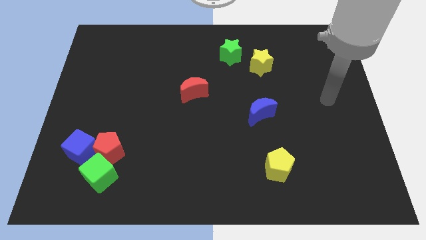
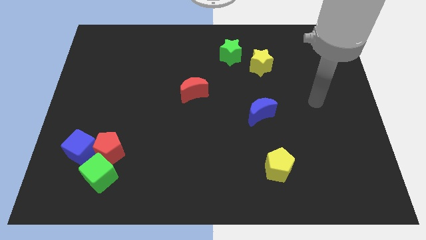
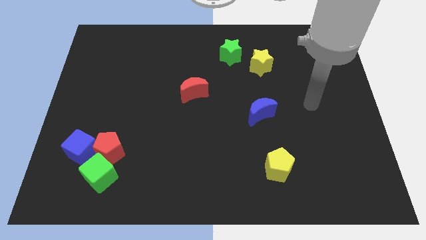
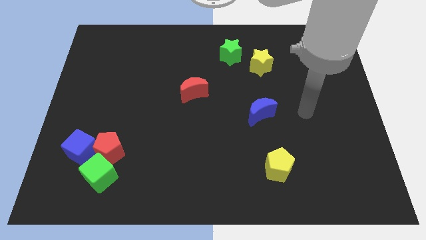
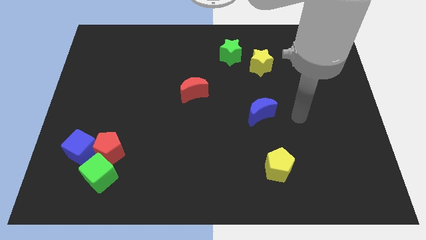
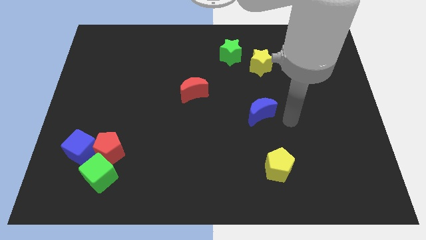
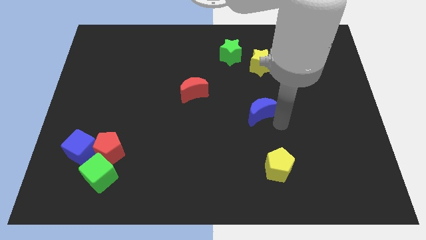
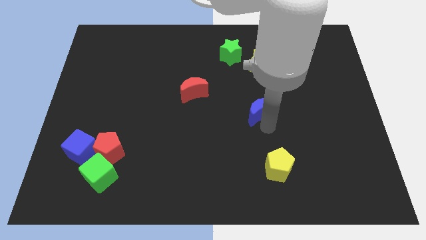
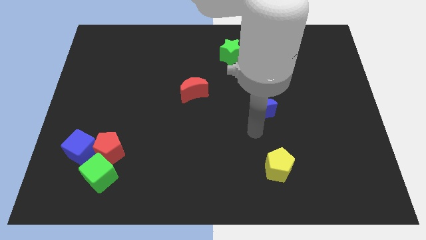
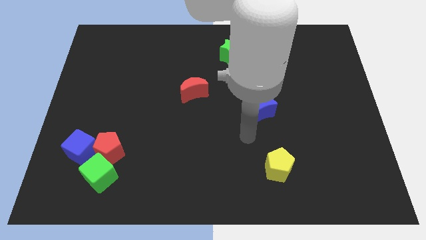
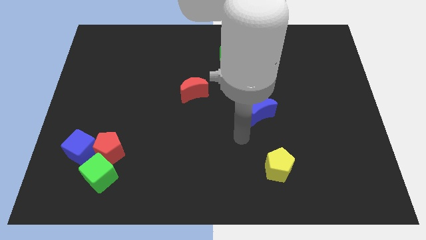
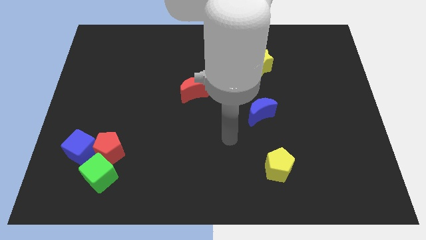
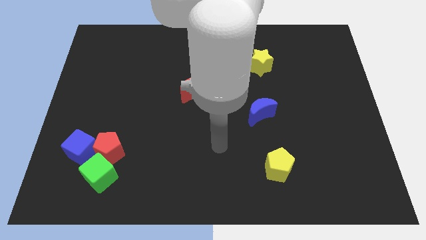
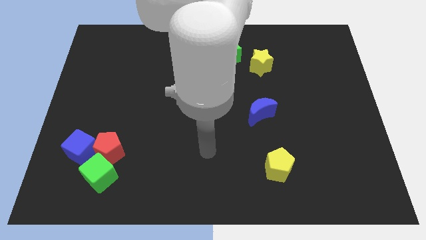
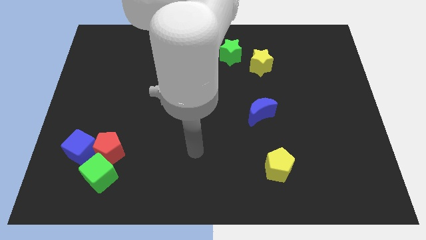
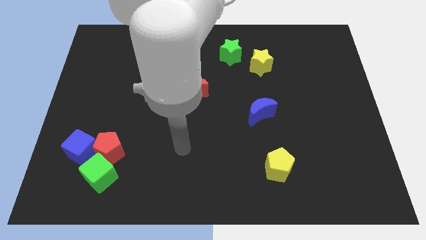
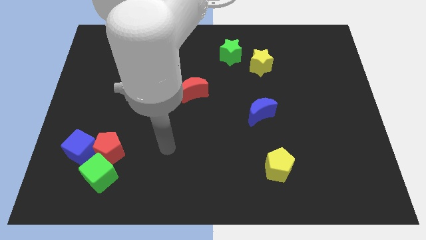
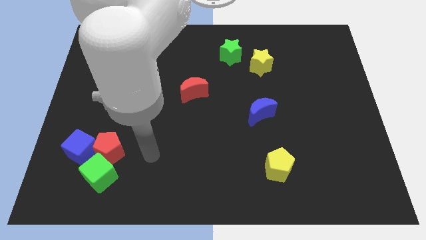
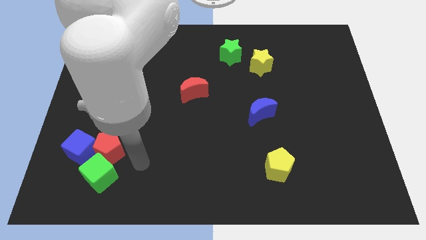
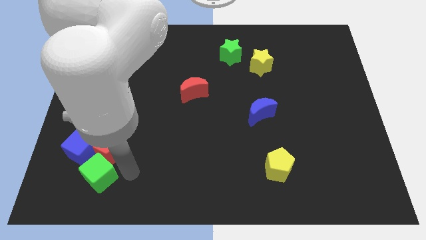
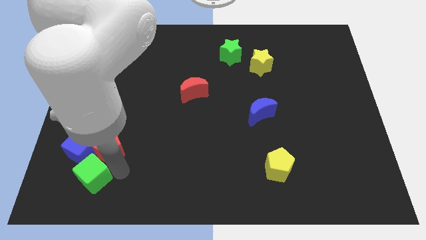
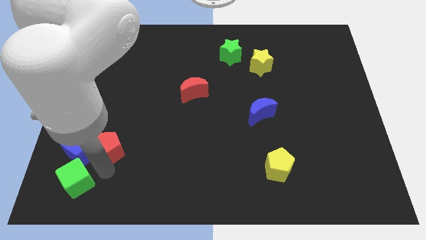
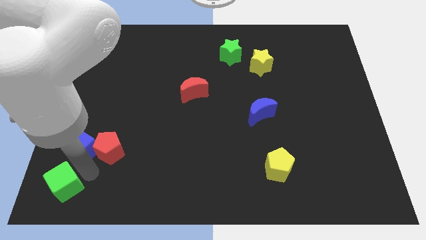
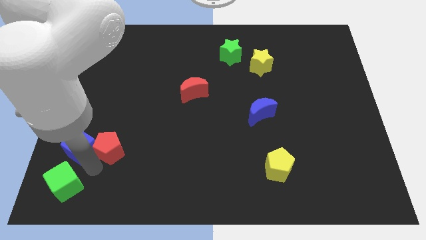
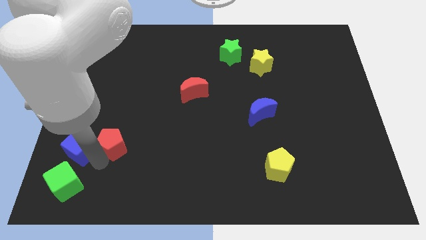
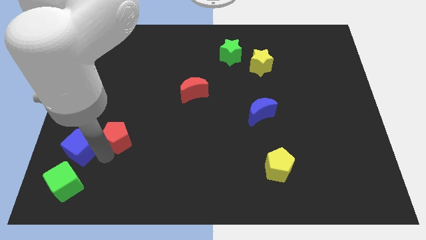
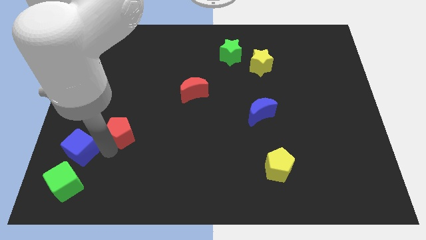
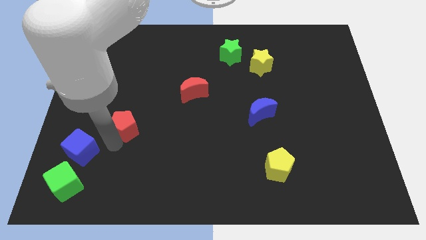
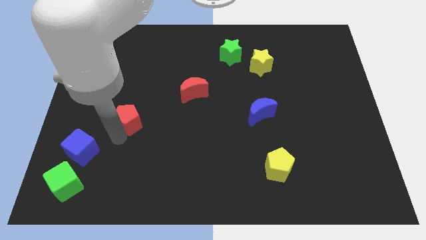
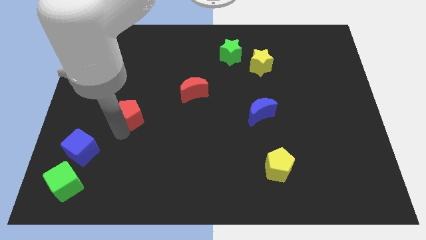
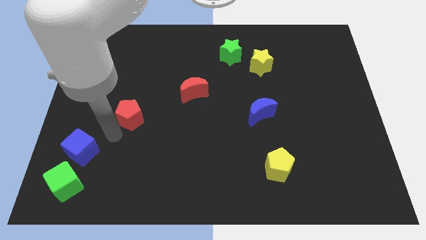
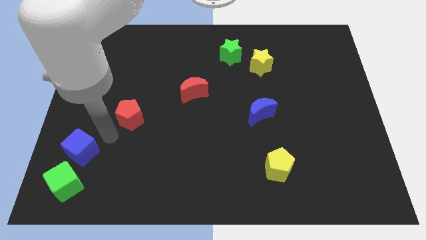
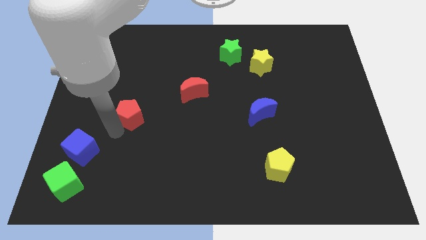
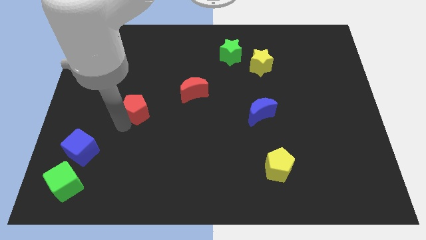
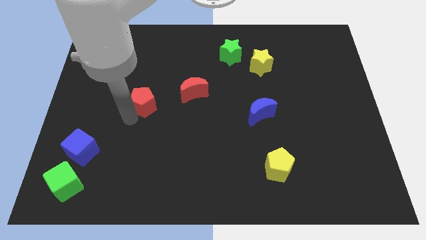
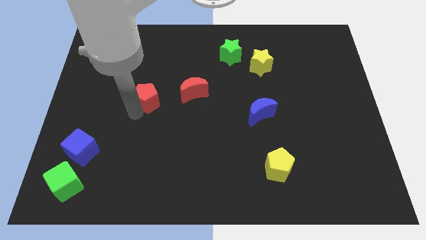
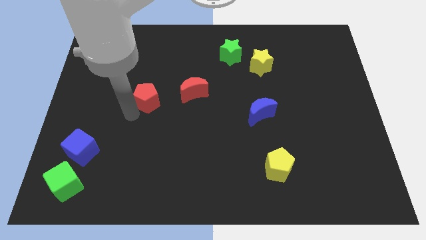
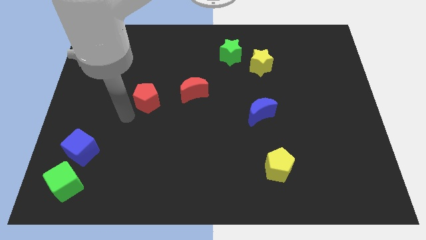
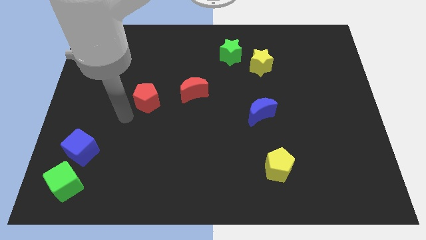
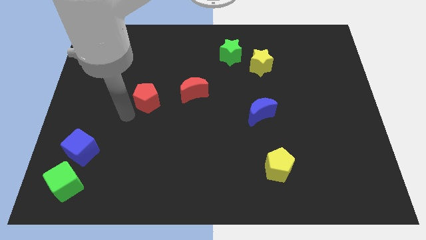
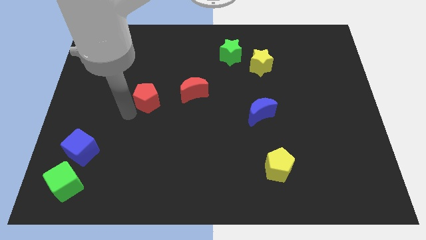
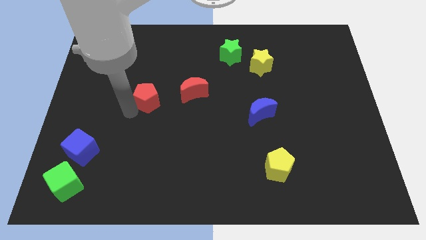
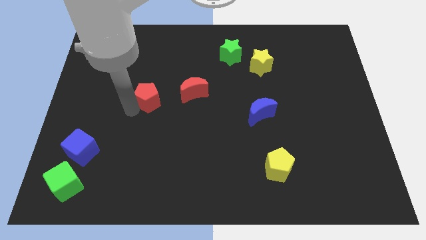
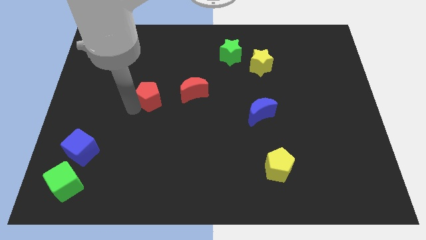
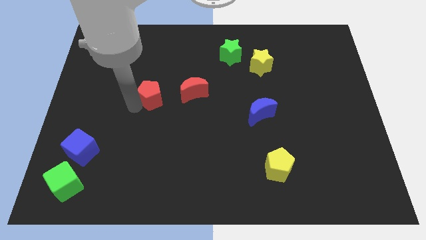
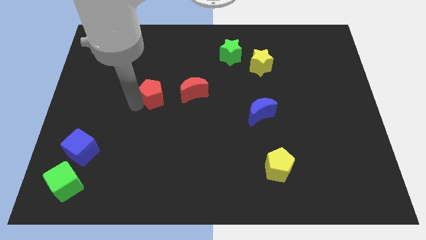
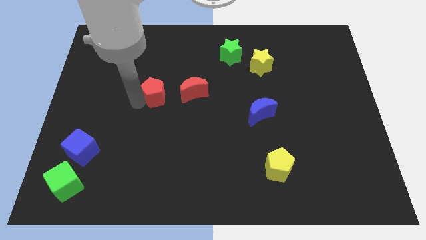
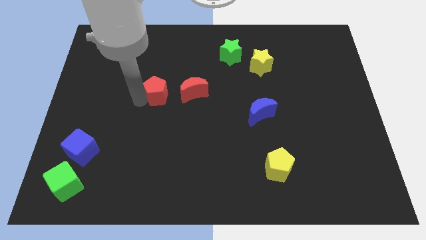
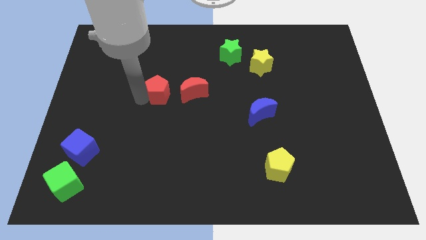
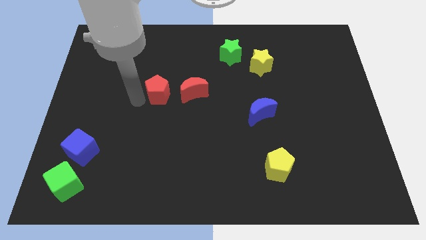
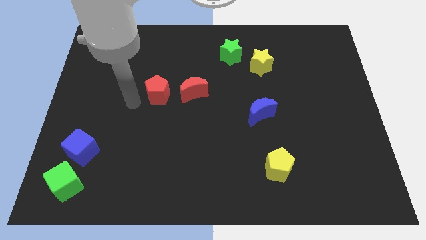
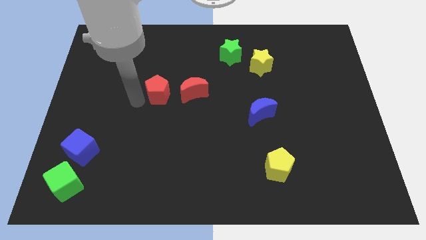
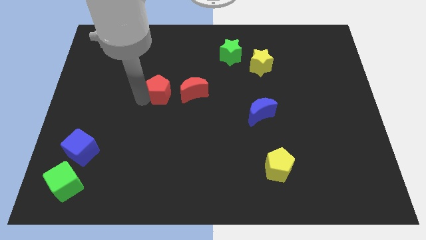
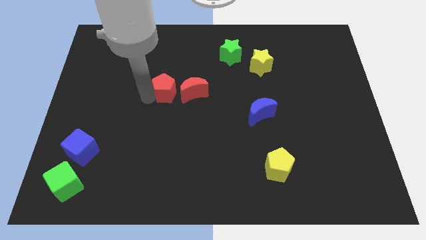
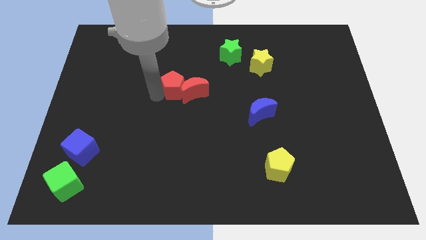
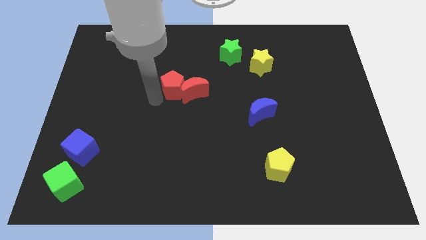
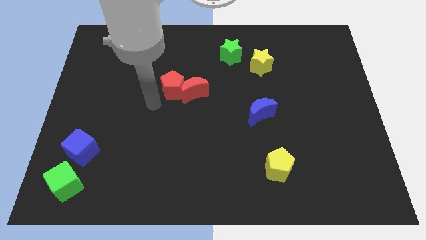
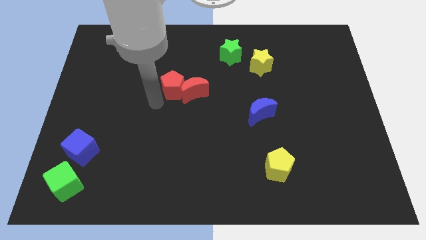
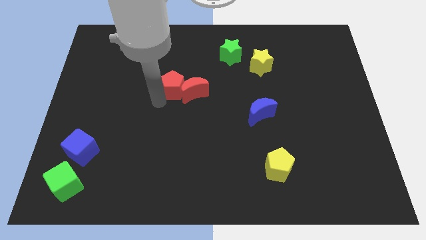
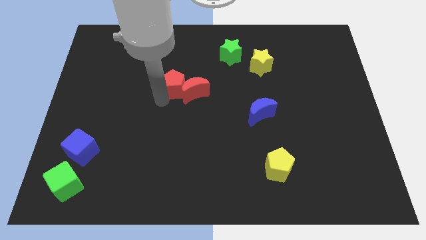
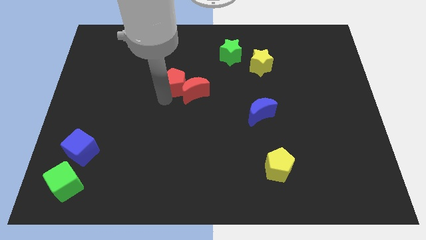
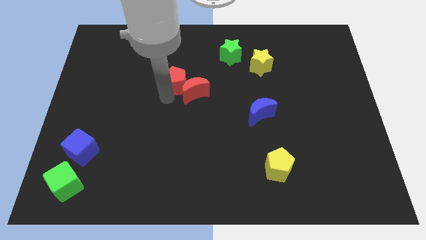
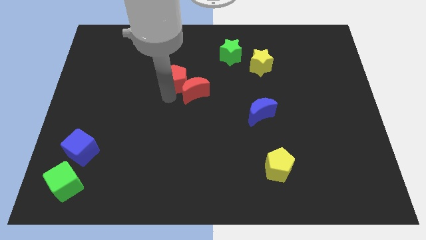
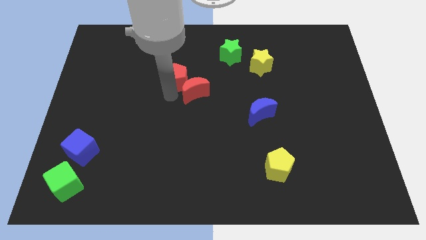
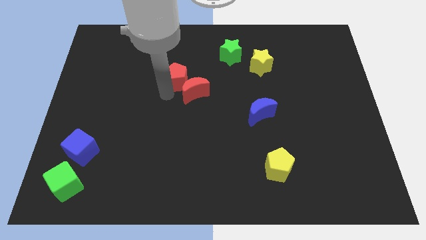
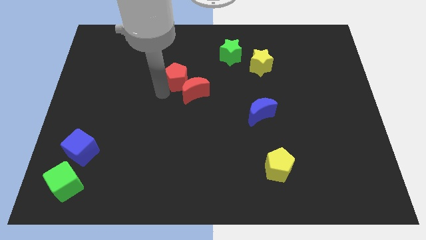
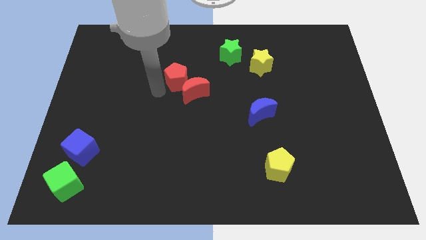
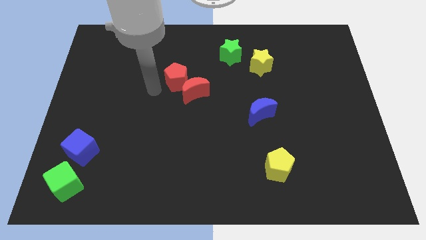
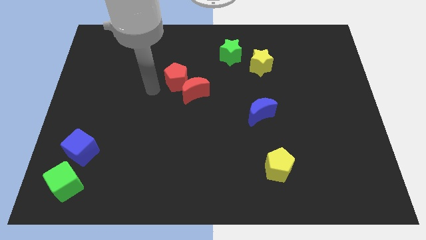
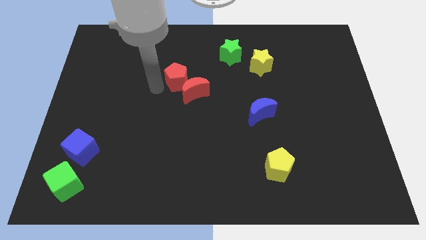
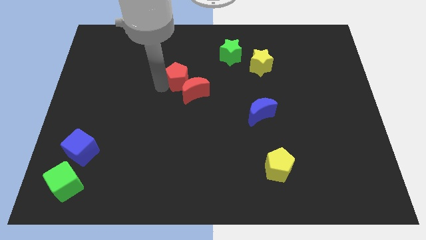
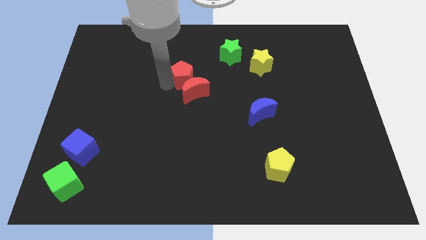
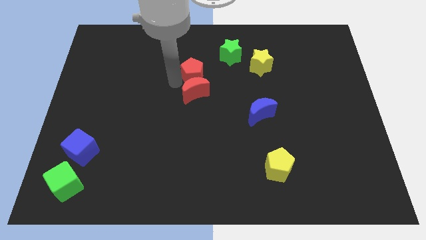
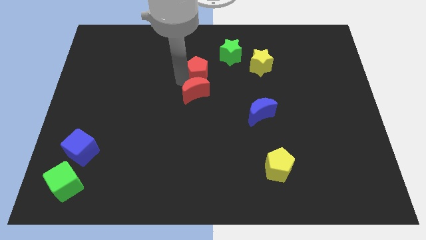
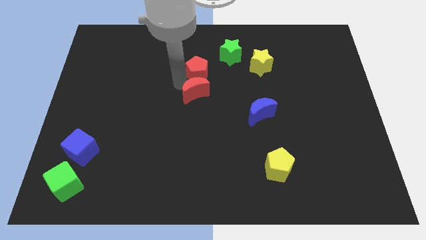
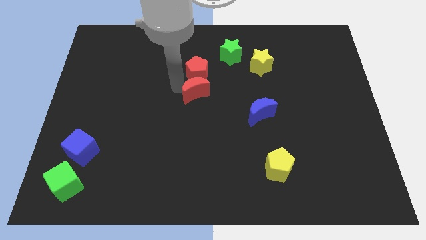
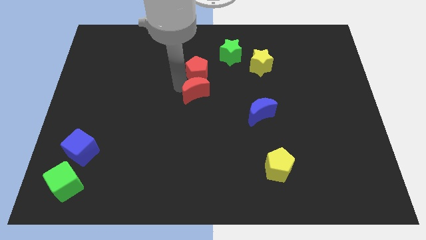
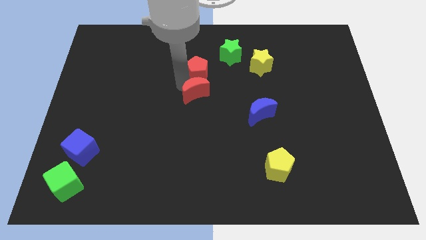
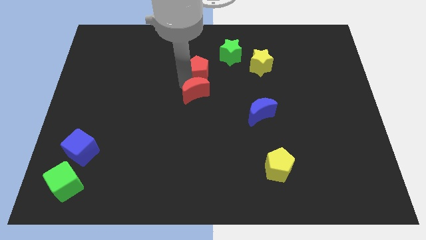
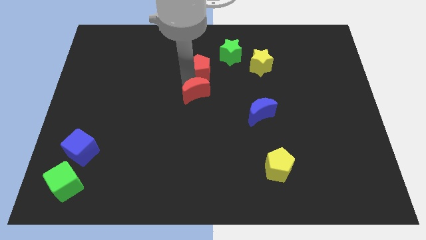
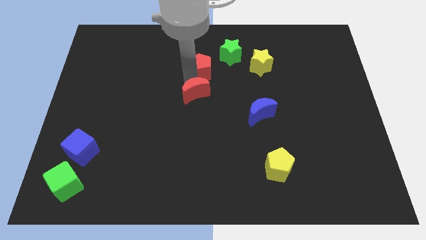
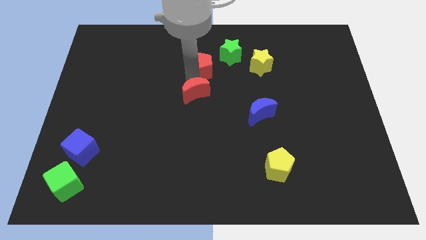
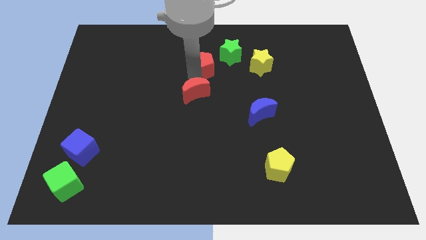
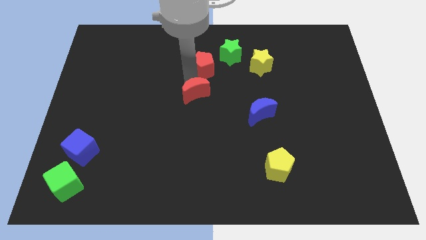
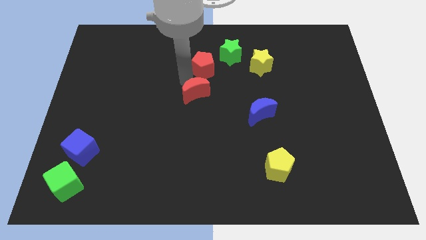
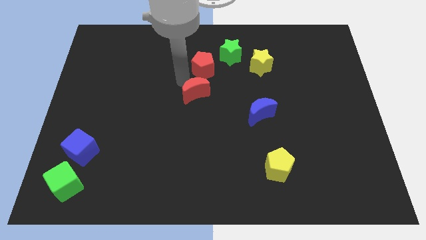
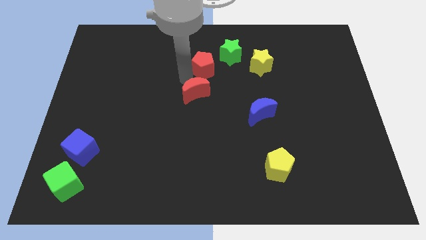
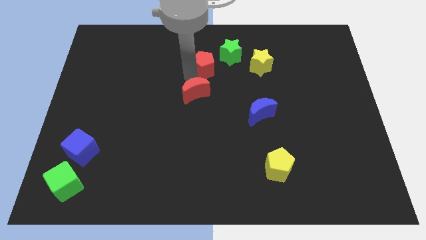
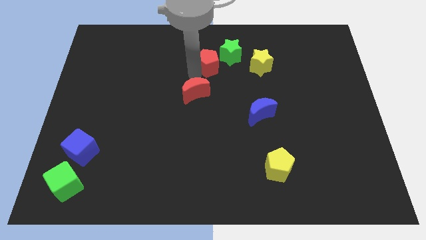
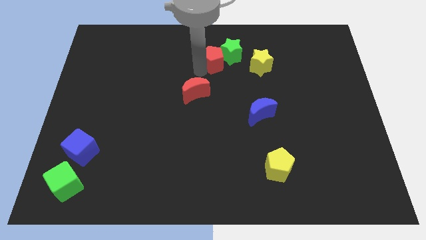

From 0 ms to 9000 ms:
move the red pentagon next to the green star
